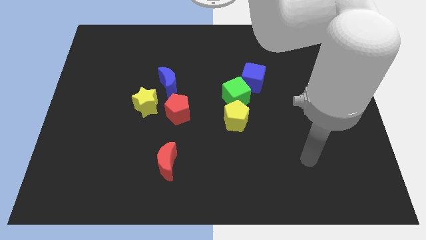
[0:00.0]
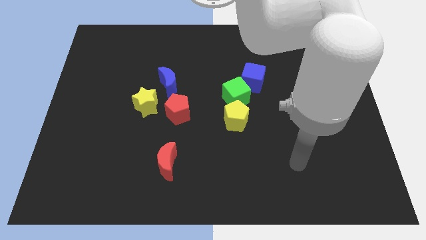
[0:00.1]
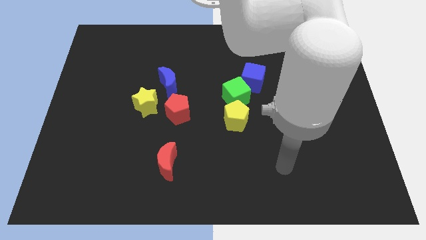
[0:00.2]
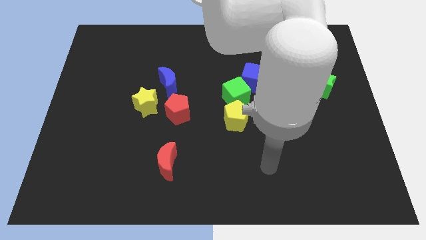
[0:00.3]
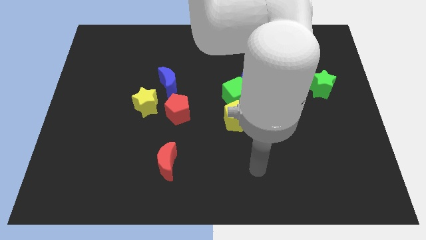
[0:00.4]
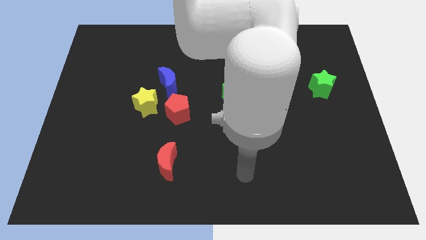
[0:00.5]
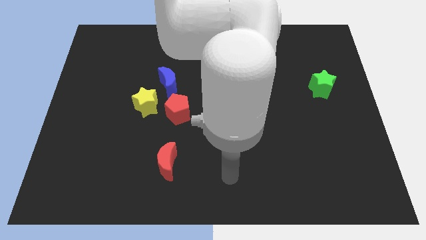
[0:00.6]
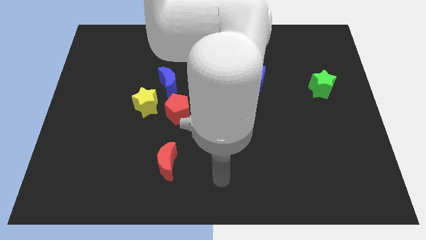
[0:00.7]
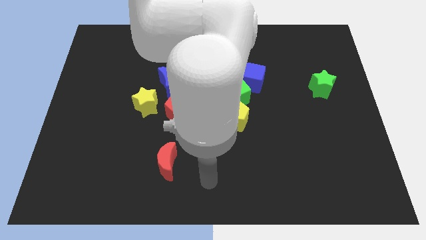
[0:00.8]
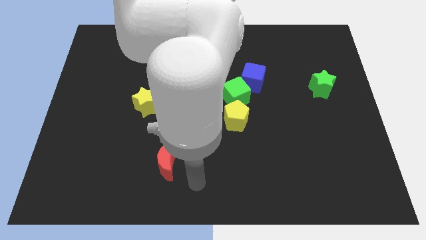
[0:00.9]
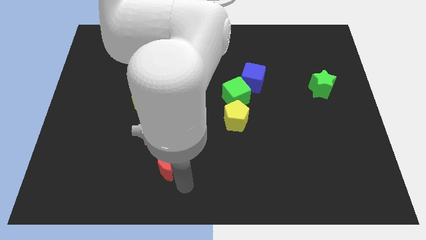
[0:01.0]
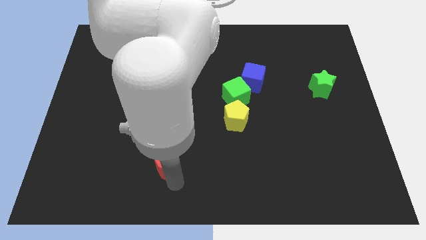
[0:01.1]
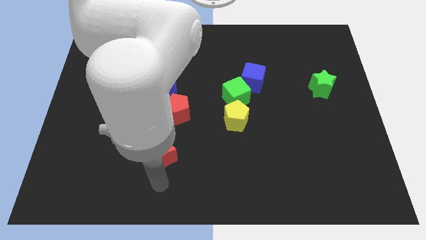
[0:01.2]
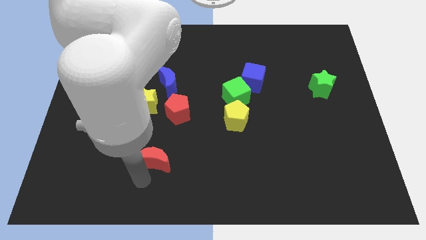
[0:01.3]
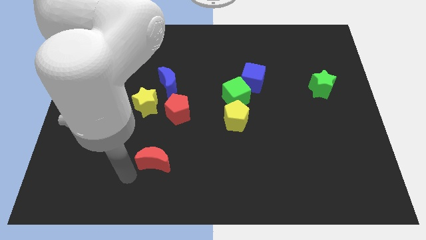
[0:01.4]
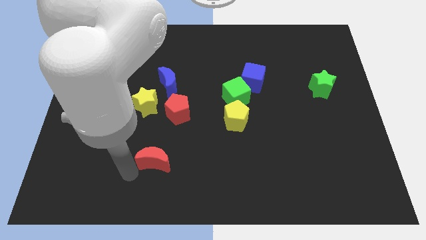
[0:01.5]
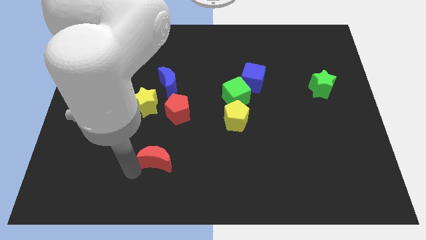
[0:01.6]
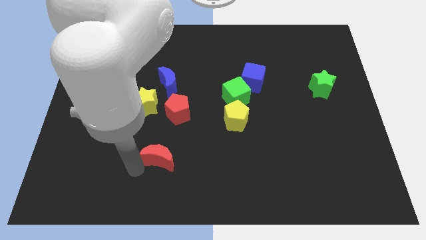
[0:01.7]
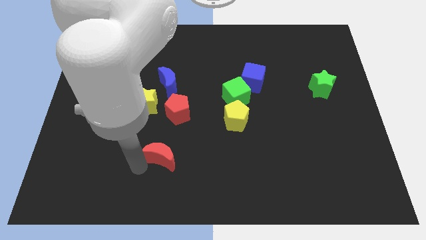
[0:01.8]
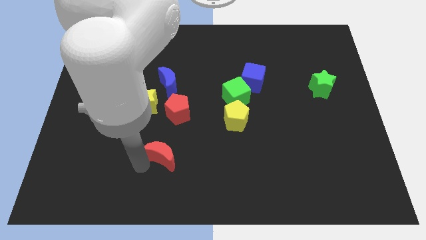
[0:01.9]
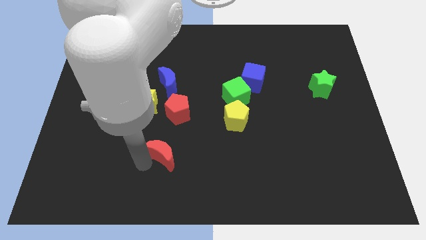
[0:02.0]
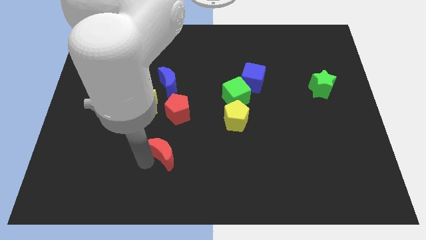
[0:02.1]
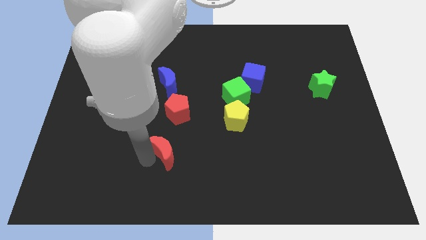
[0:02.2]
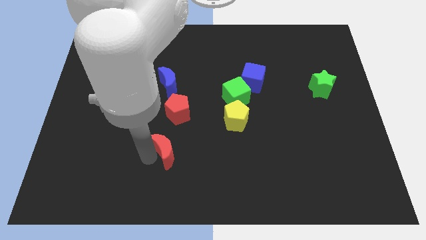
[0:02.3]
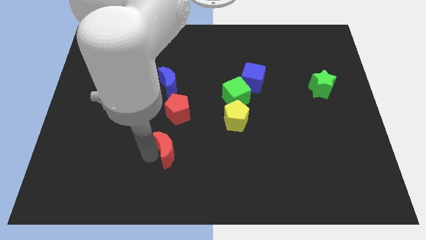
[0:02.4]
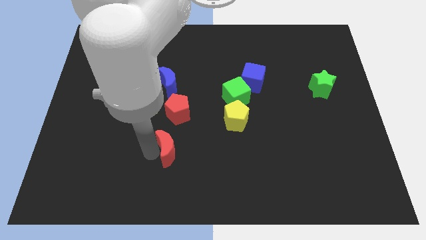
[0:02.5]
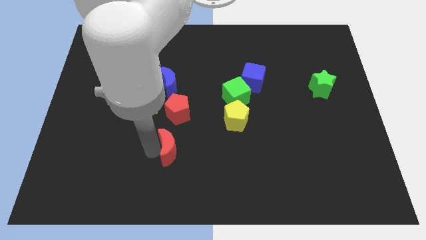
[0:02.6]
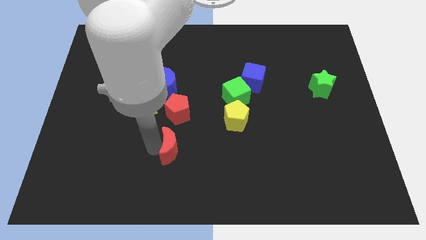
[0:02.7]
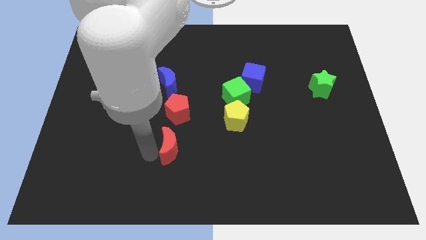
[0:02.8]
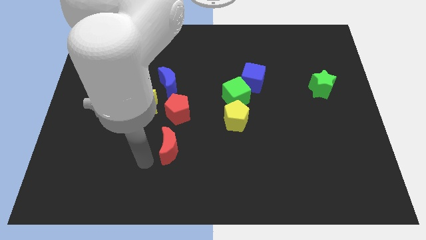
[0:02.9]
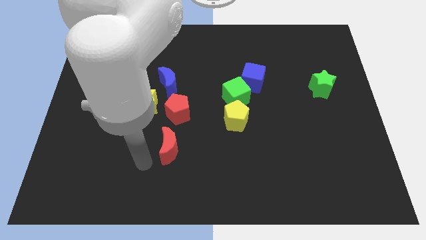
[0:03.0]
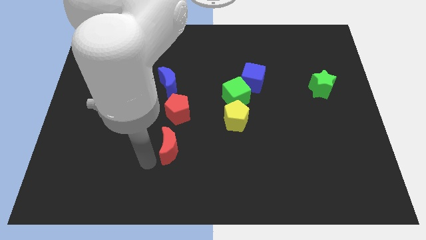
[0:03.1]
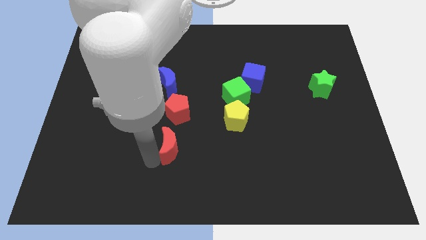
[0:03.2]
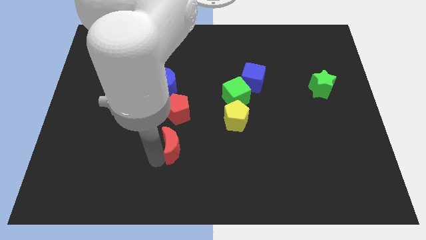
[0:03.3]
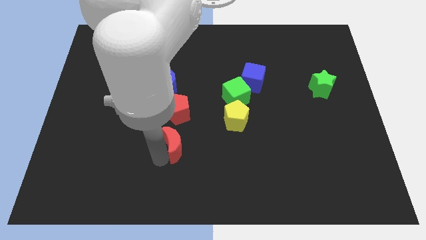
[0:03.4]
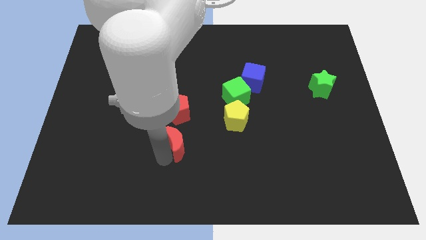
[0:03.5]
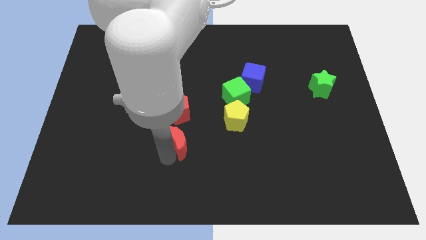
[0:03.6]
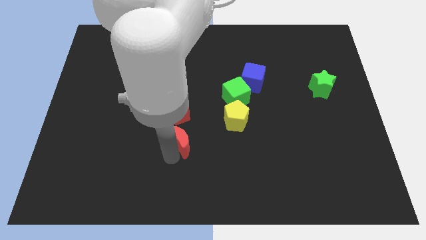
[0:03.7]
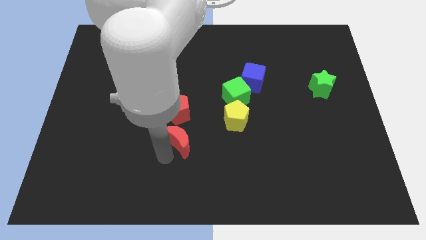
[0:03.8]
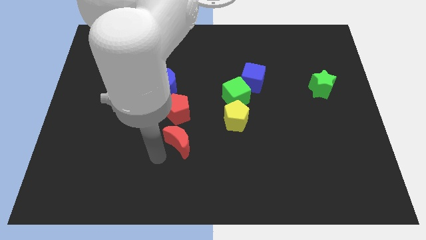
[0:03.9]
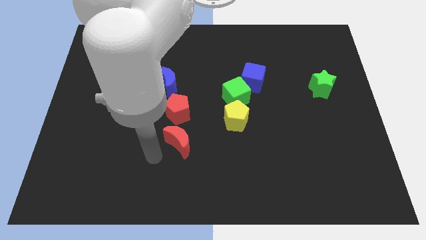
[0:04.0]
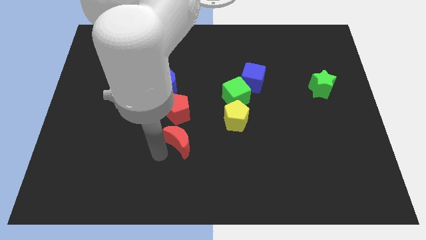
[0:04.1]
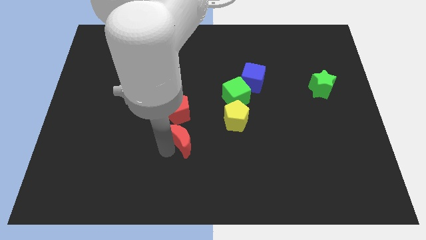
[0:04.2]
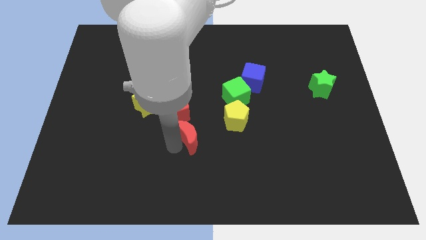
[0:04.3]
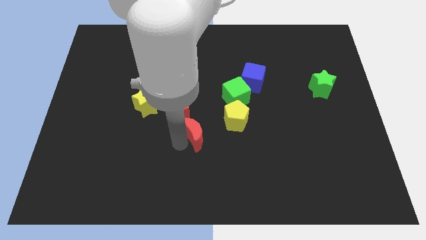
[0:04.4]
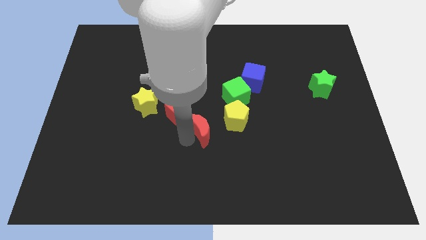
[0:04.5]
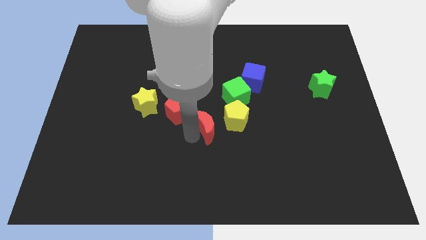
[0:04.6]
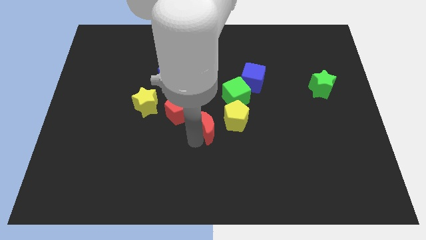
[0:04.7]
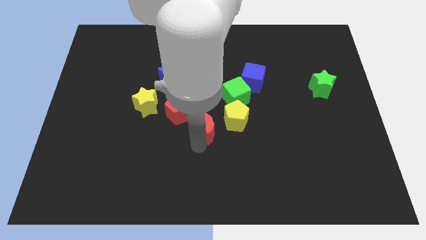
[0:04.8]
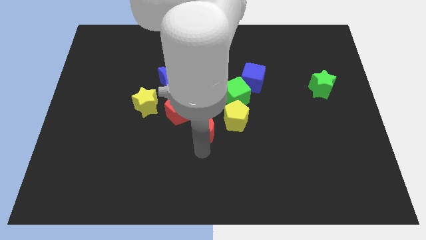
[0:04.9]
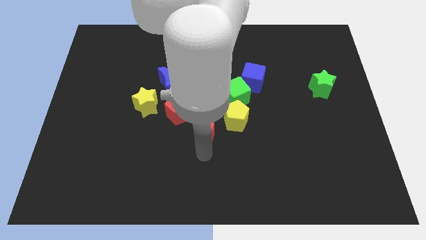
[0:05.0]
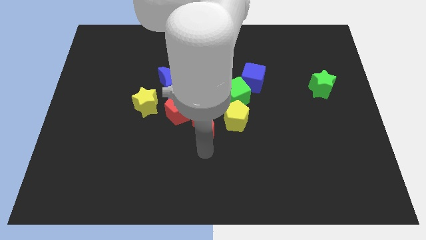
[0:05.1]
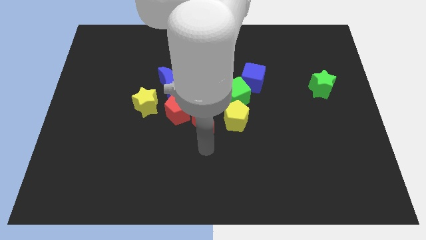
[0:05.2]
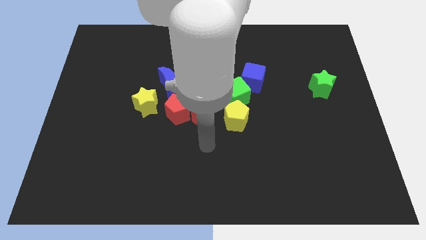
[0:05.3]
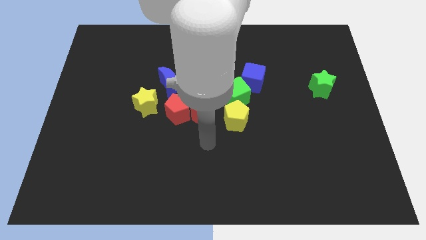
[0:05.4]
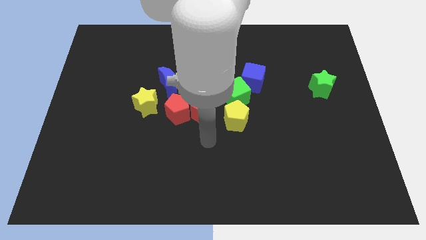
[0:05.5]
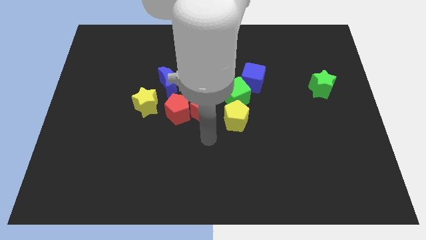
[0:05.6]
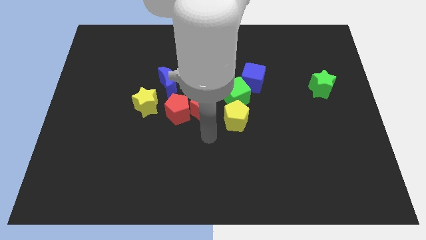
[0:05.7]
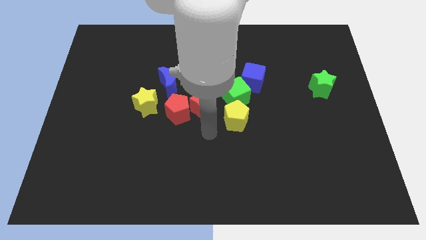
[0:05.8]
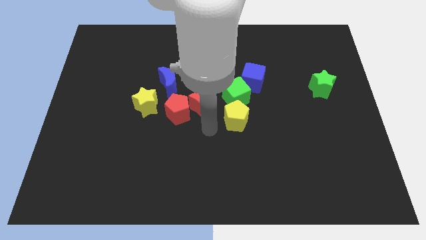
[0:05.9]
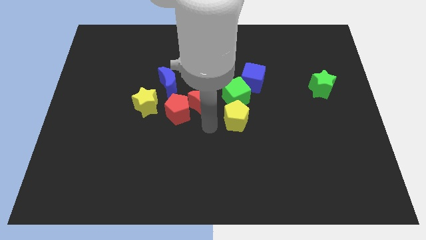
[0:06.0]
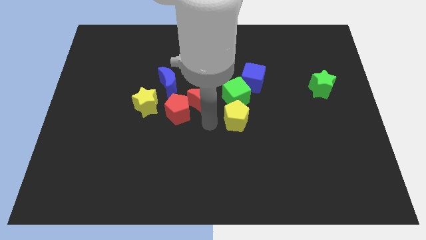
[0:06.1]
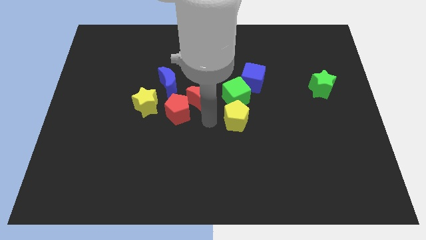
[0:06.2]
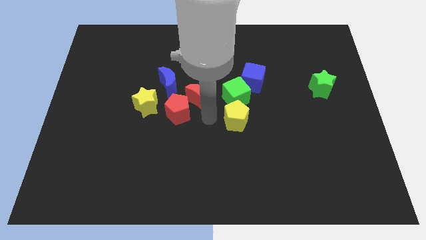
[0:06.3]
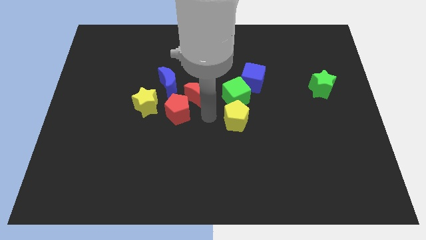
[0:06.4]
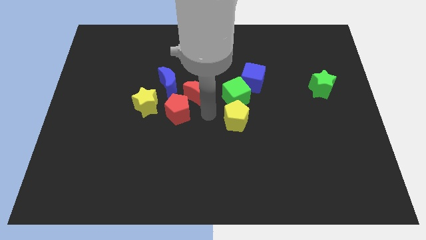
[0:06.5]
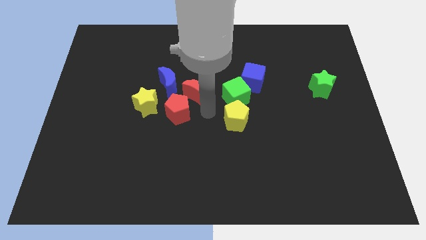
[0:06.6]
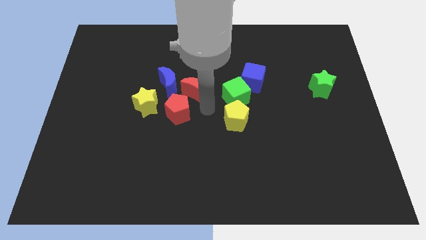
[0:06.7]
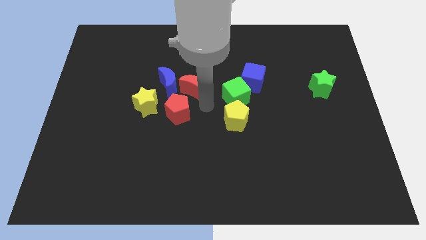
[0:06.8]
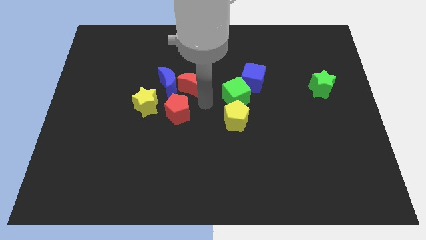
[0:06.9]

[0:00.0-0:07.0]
move the red moon upwards

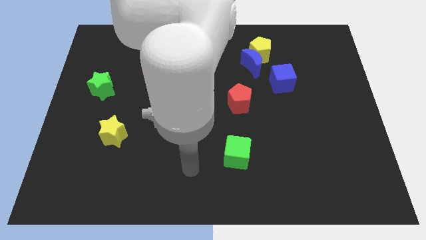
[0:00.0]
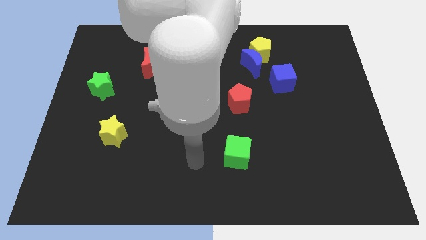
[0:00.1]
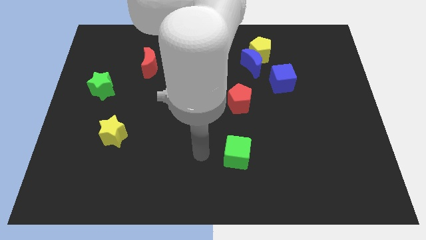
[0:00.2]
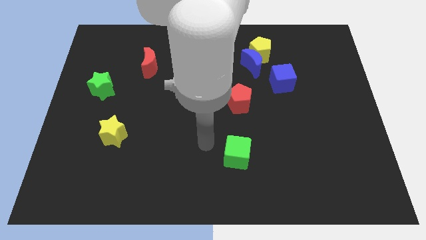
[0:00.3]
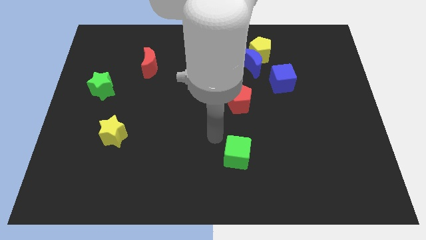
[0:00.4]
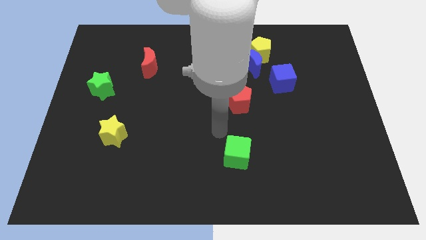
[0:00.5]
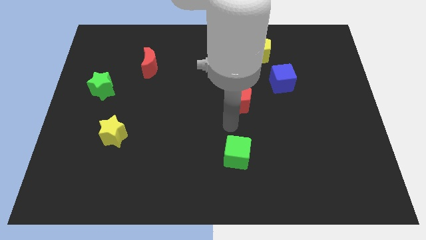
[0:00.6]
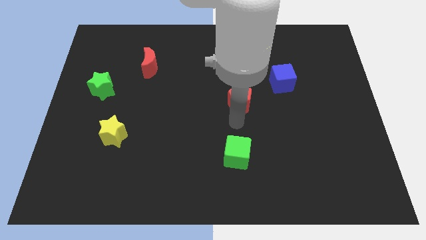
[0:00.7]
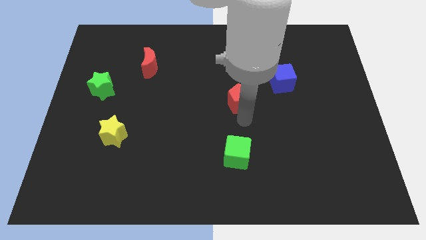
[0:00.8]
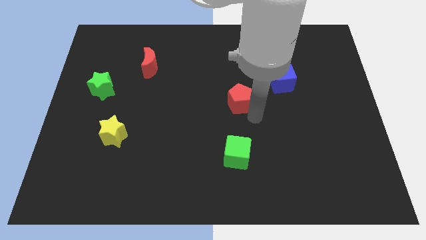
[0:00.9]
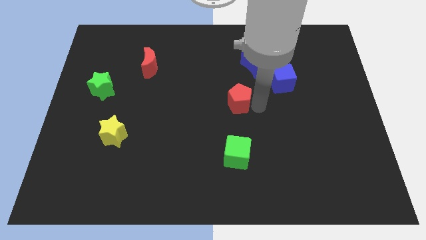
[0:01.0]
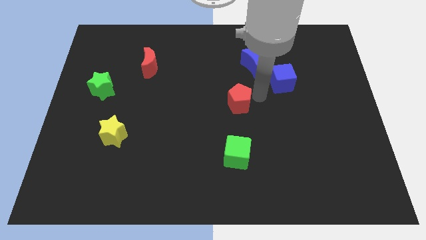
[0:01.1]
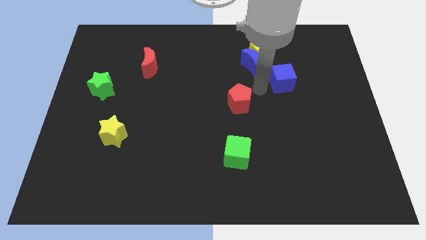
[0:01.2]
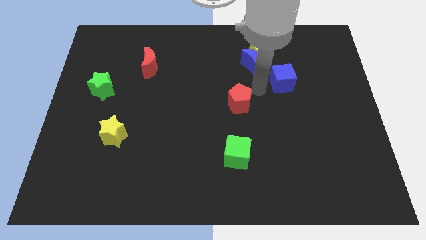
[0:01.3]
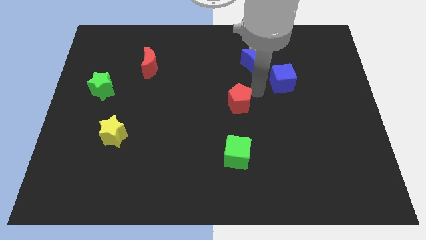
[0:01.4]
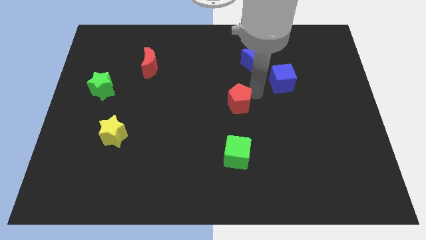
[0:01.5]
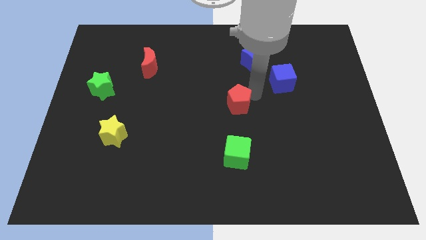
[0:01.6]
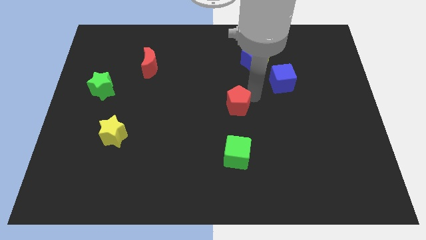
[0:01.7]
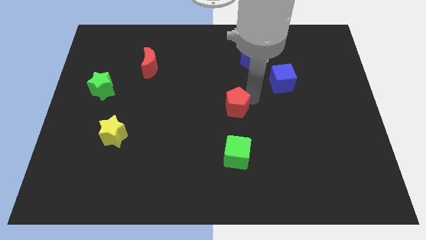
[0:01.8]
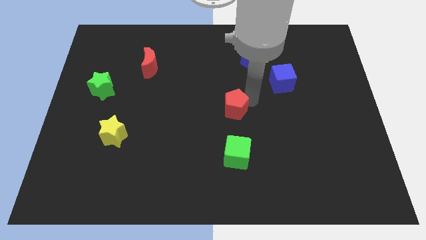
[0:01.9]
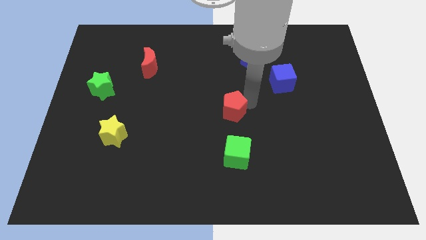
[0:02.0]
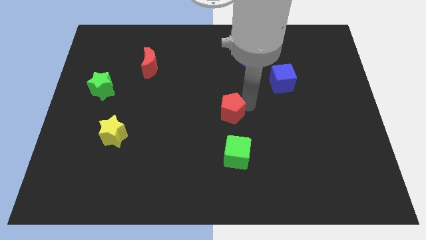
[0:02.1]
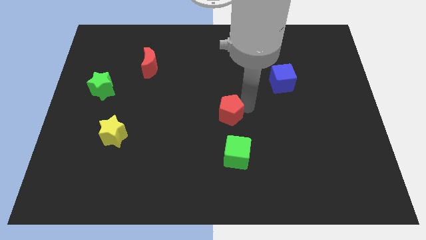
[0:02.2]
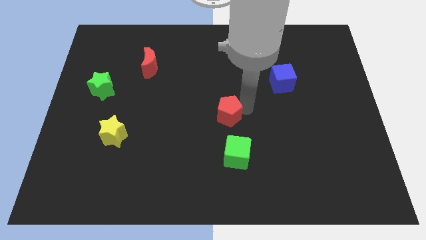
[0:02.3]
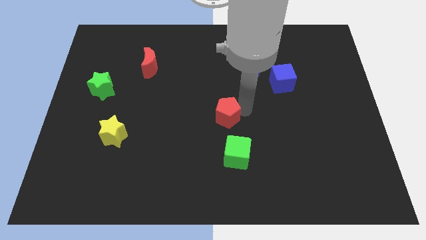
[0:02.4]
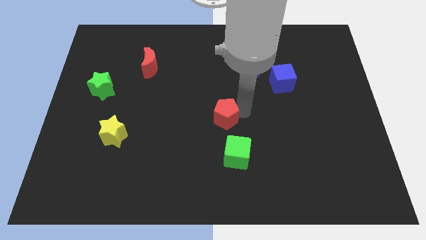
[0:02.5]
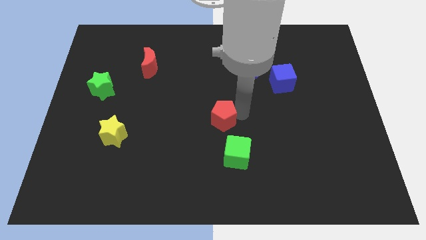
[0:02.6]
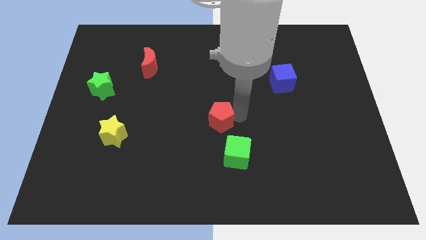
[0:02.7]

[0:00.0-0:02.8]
slightly move the red pentagon down and to the left
